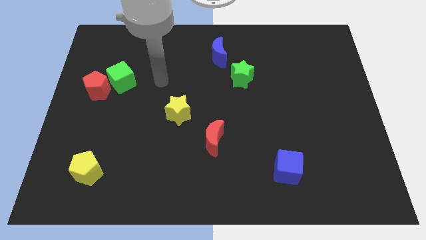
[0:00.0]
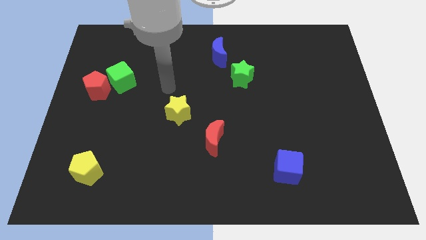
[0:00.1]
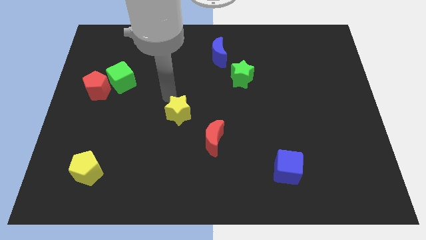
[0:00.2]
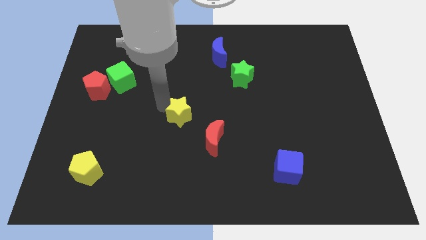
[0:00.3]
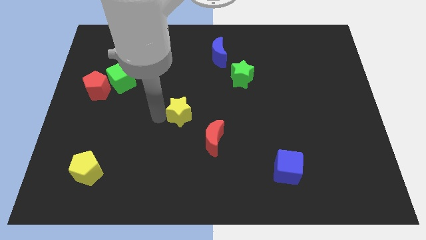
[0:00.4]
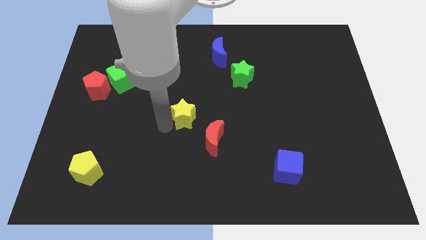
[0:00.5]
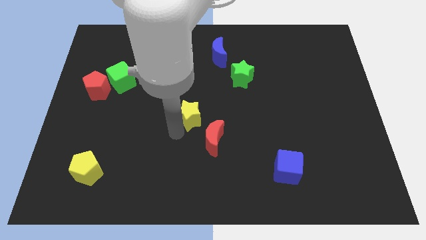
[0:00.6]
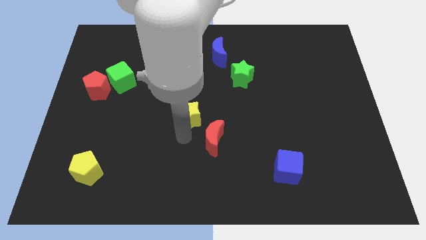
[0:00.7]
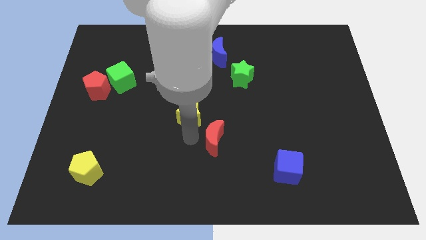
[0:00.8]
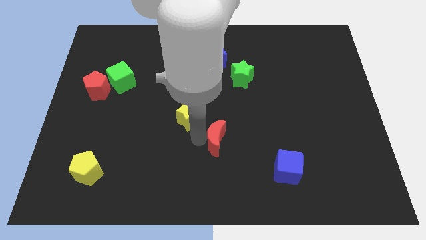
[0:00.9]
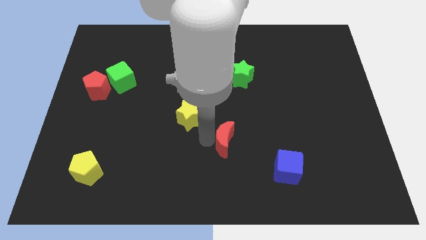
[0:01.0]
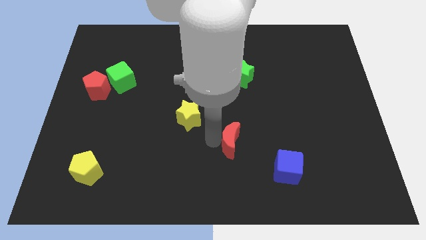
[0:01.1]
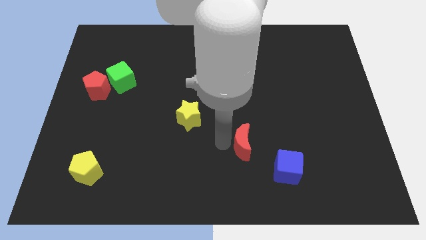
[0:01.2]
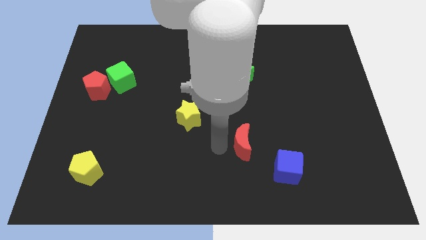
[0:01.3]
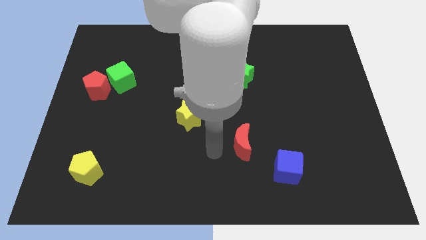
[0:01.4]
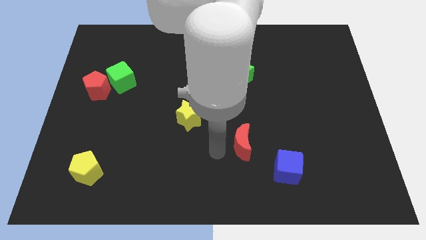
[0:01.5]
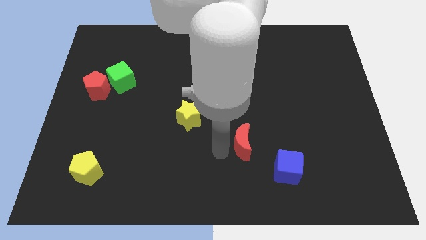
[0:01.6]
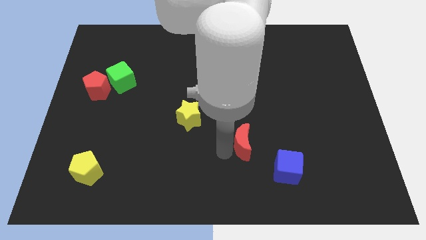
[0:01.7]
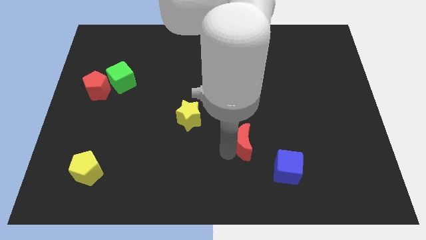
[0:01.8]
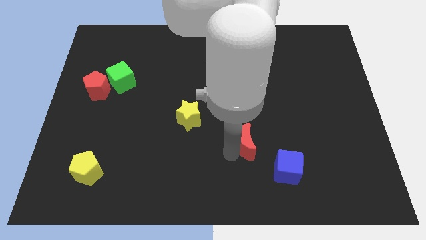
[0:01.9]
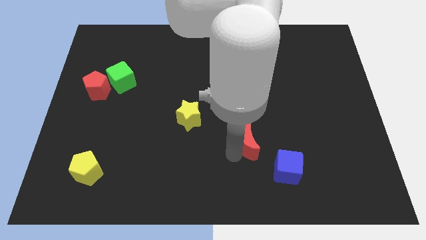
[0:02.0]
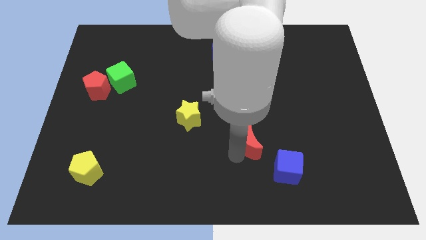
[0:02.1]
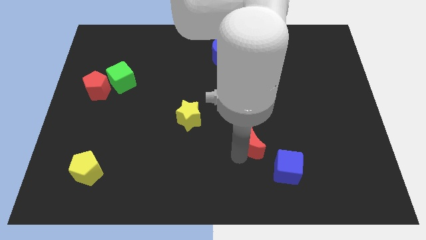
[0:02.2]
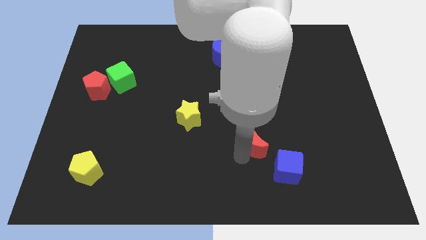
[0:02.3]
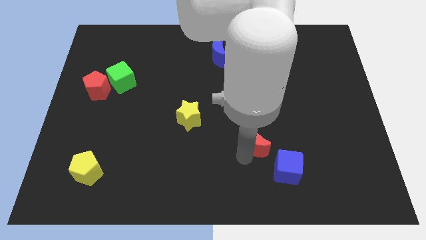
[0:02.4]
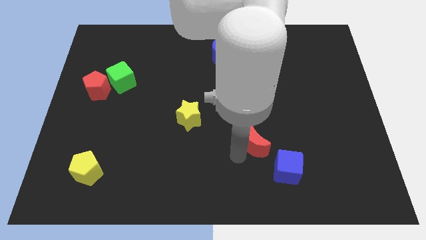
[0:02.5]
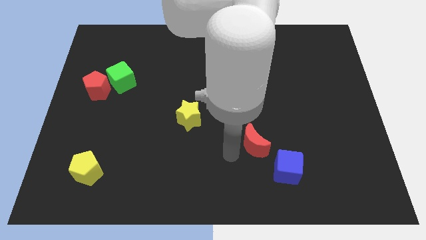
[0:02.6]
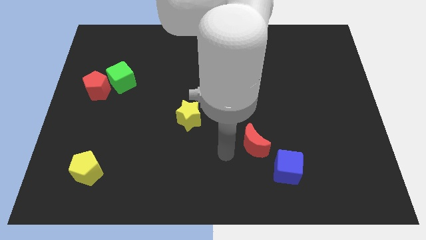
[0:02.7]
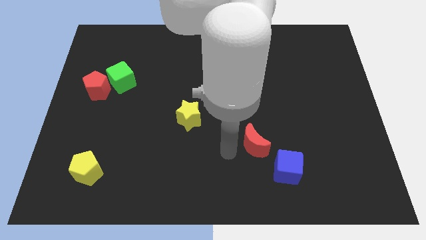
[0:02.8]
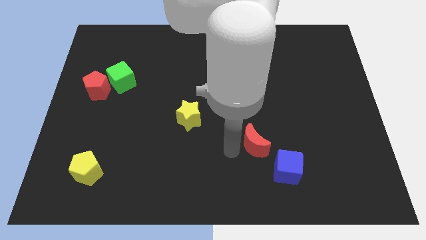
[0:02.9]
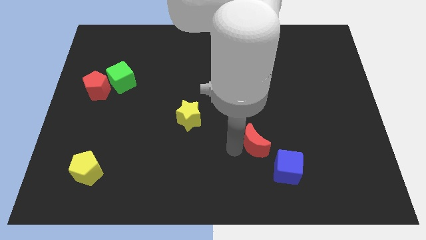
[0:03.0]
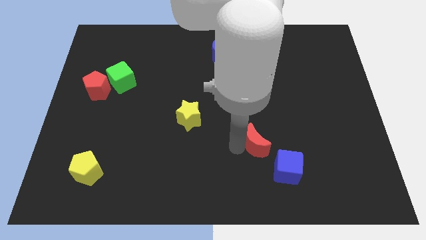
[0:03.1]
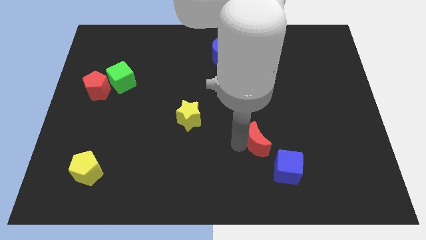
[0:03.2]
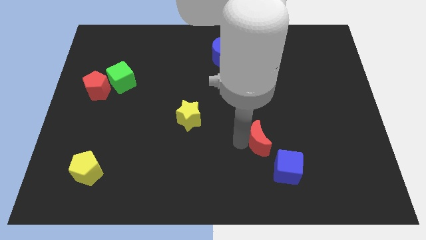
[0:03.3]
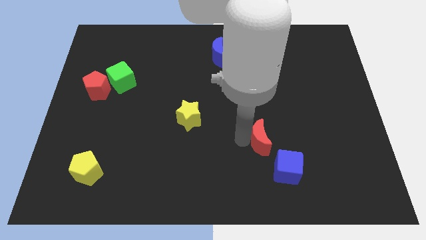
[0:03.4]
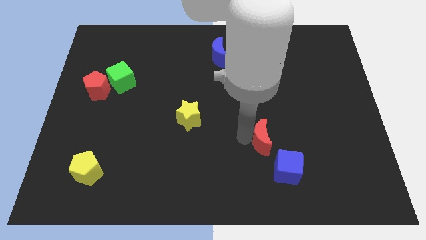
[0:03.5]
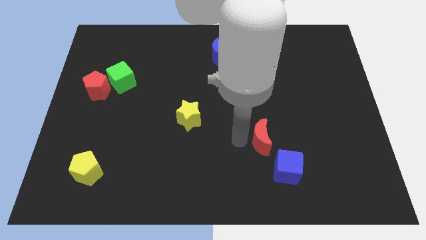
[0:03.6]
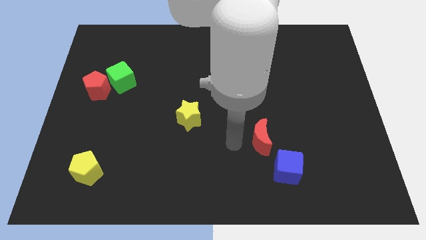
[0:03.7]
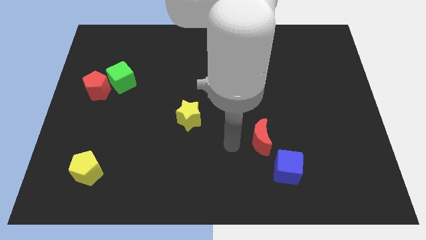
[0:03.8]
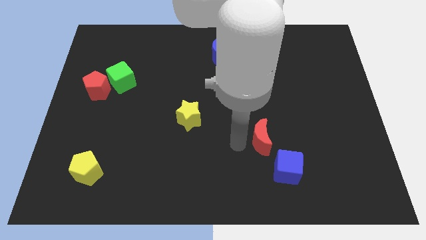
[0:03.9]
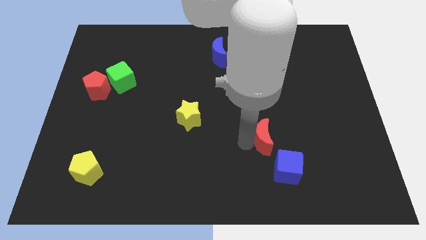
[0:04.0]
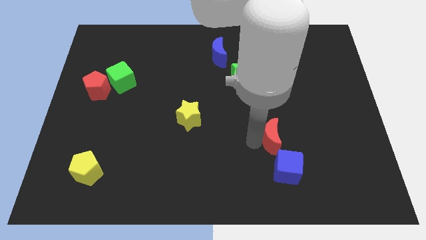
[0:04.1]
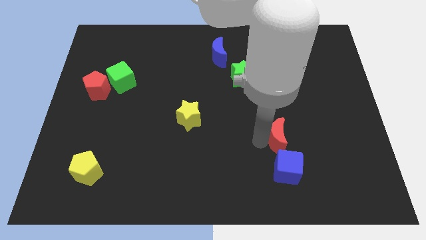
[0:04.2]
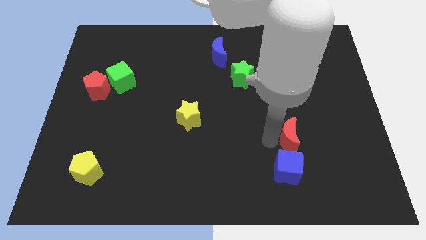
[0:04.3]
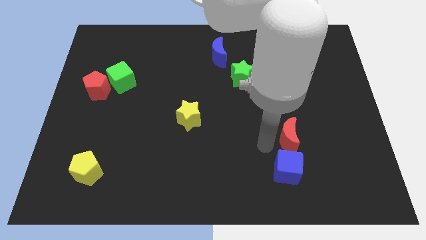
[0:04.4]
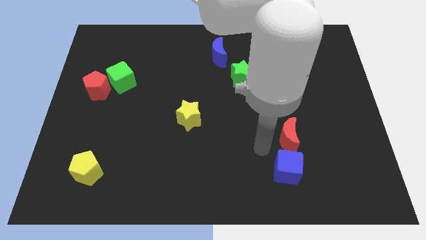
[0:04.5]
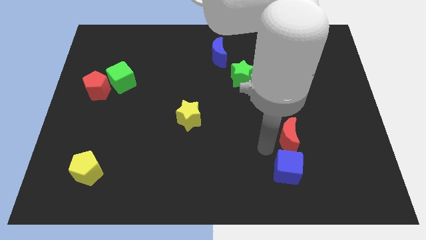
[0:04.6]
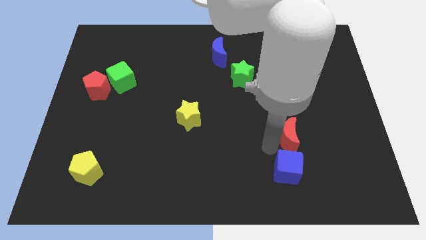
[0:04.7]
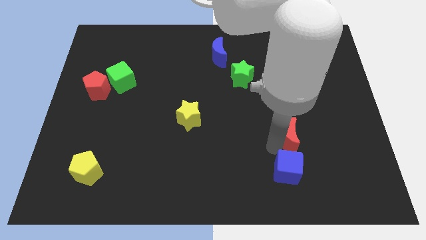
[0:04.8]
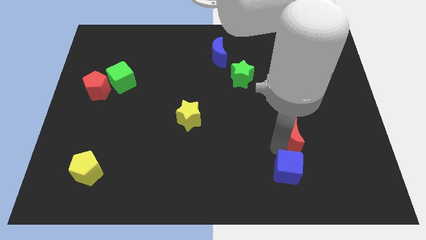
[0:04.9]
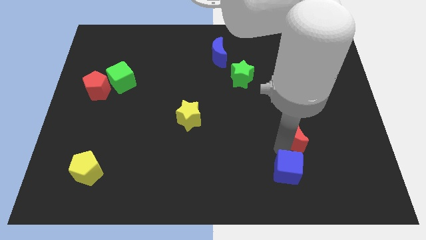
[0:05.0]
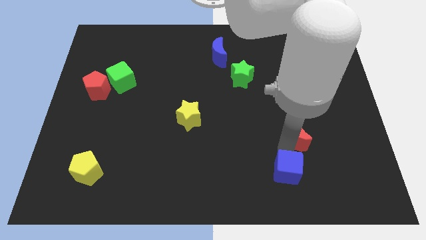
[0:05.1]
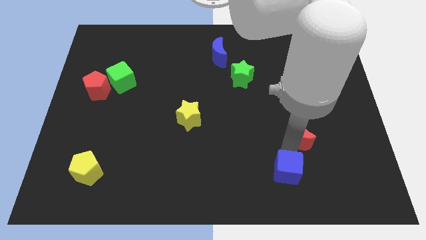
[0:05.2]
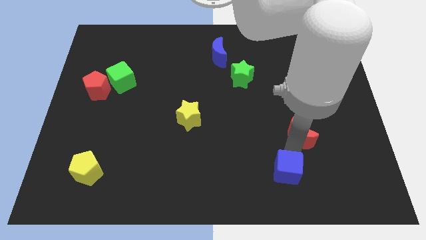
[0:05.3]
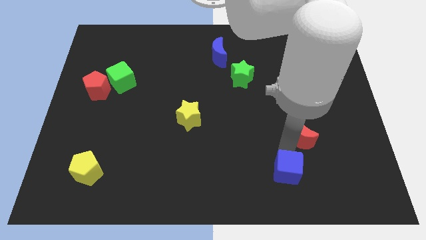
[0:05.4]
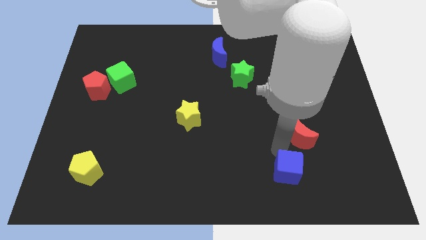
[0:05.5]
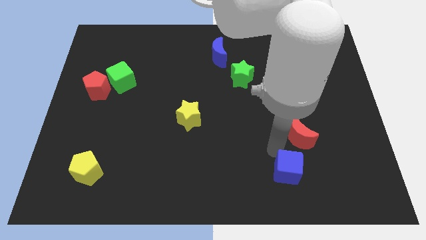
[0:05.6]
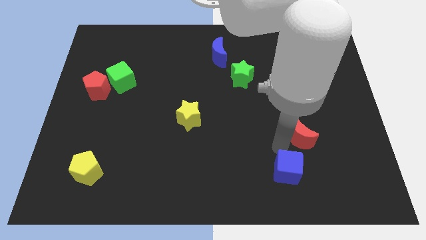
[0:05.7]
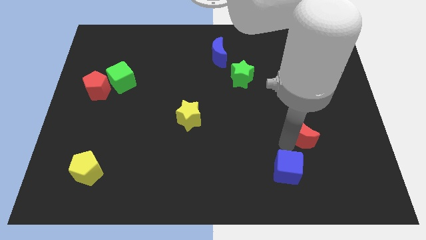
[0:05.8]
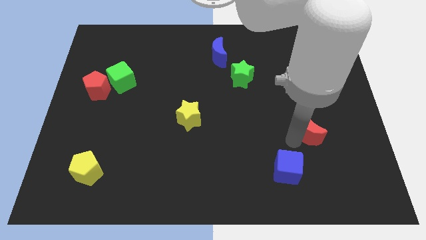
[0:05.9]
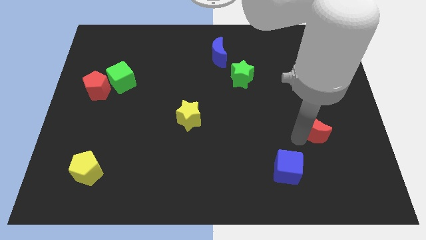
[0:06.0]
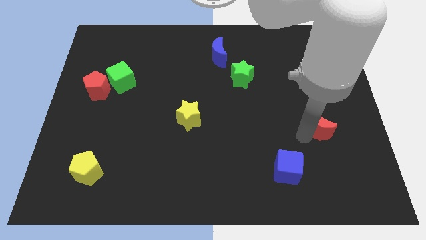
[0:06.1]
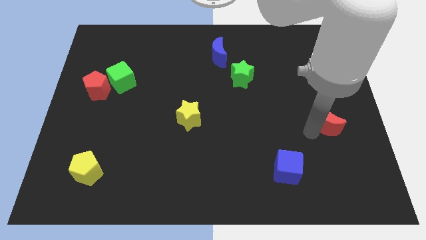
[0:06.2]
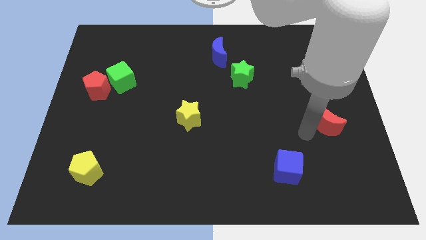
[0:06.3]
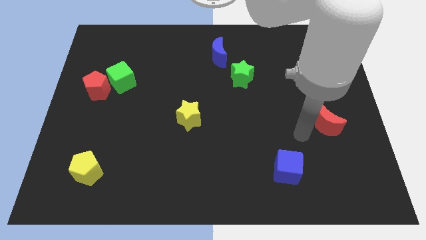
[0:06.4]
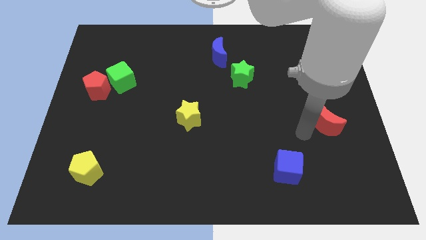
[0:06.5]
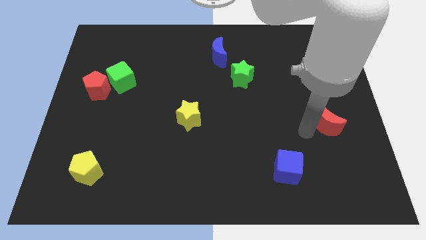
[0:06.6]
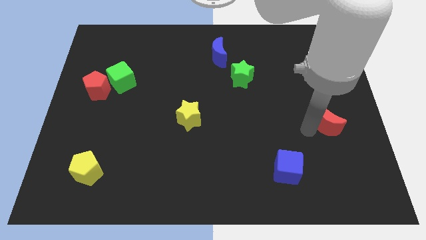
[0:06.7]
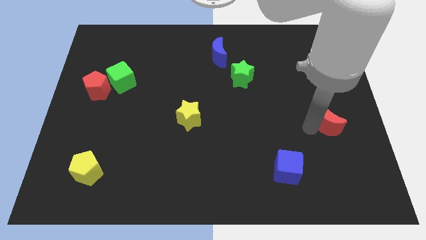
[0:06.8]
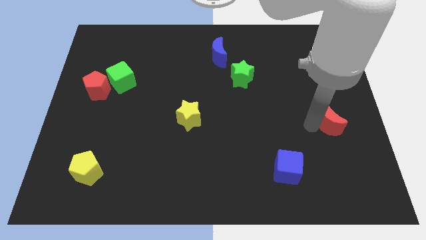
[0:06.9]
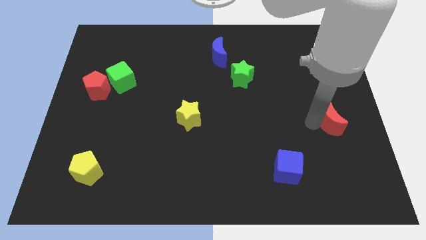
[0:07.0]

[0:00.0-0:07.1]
move the red moon to the center right

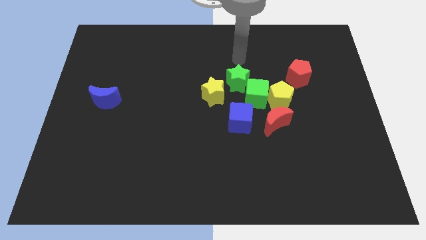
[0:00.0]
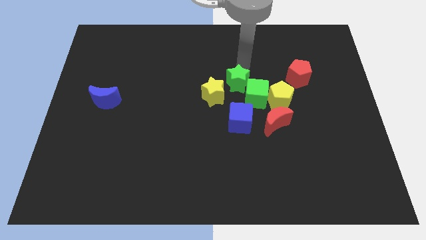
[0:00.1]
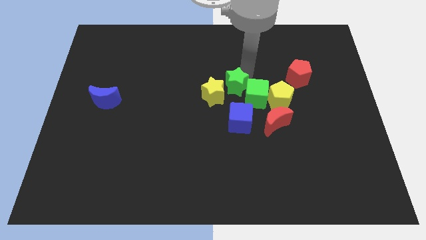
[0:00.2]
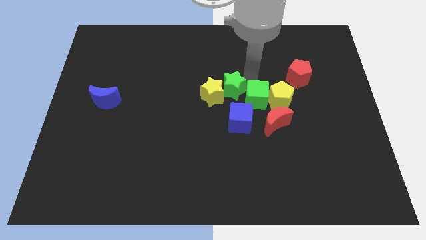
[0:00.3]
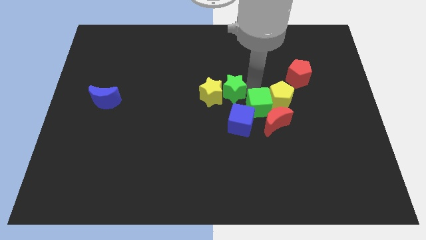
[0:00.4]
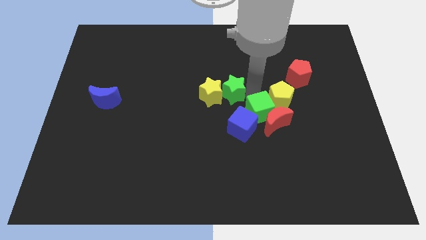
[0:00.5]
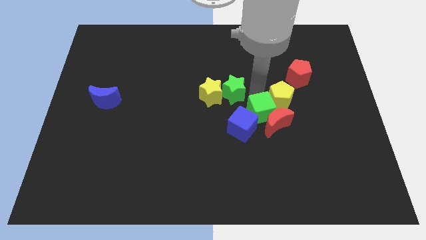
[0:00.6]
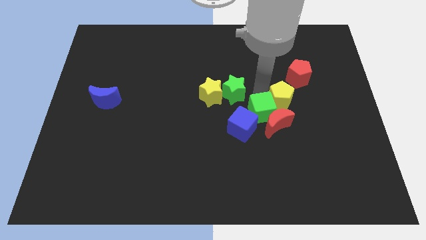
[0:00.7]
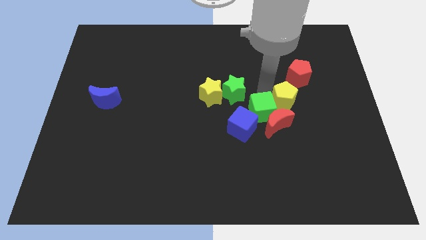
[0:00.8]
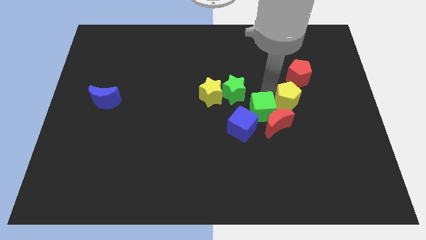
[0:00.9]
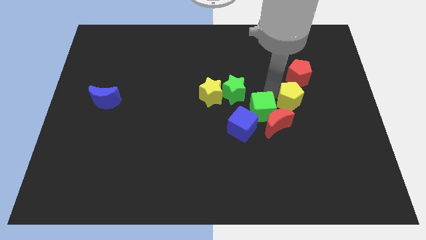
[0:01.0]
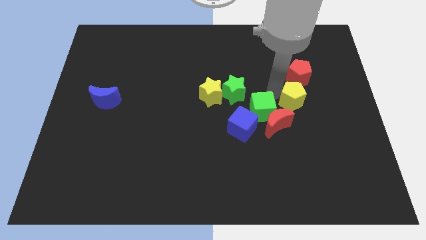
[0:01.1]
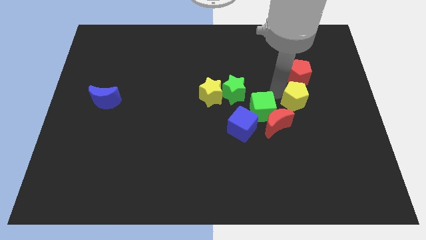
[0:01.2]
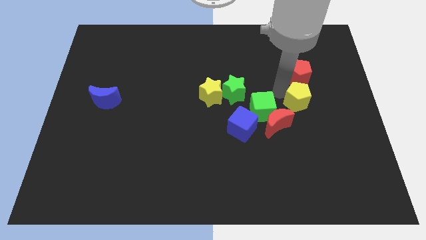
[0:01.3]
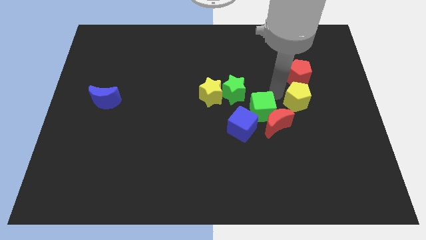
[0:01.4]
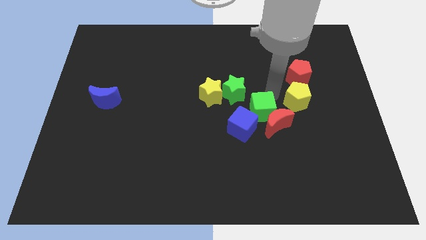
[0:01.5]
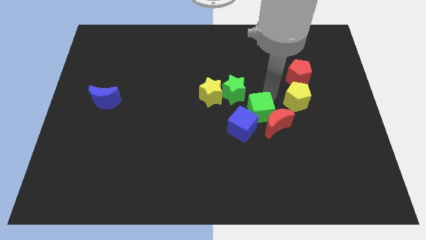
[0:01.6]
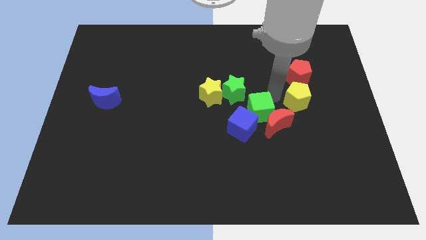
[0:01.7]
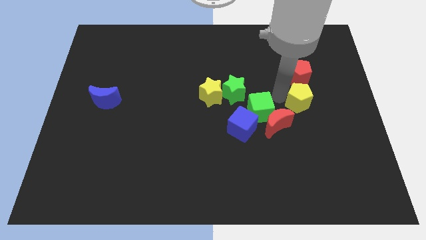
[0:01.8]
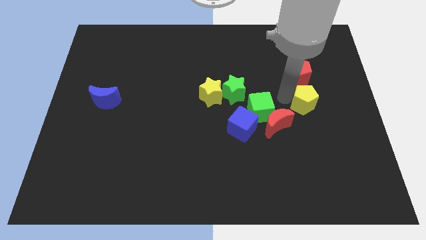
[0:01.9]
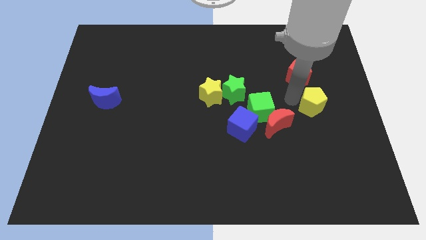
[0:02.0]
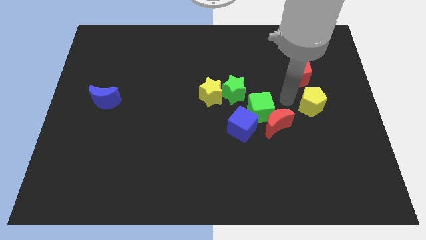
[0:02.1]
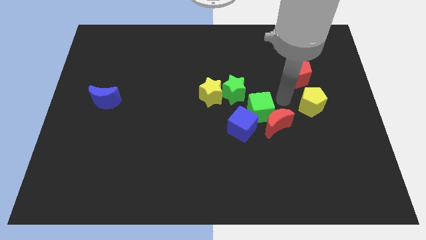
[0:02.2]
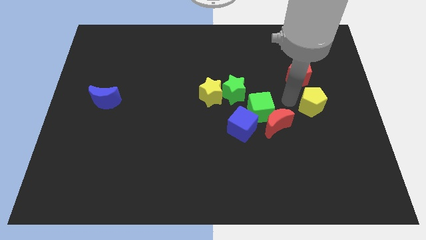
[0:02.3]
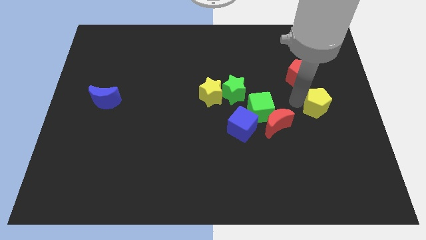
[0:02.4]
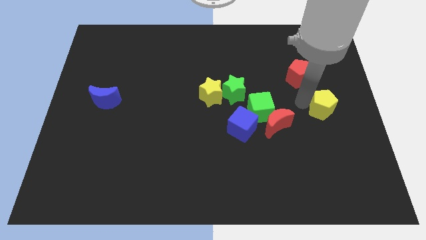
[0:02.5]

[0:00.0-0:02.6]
slide the yellow pentagon to the right side of the board
